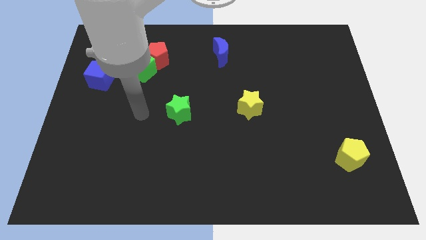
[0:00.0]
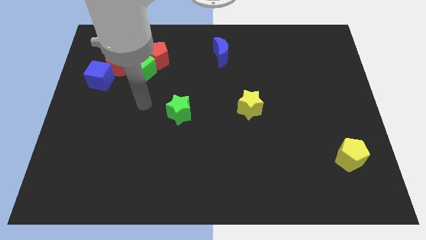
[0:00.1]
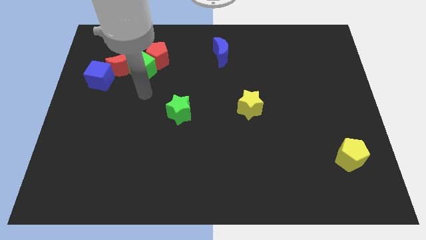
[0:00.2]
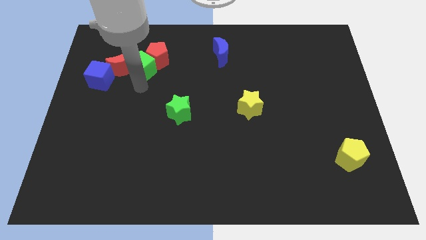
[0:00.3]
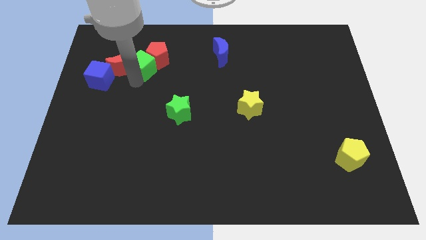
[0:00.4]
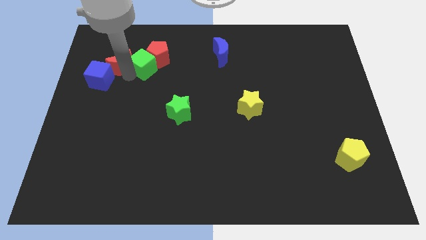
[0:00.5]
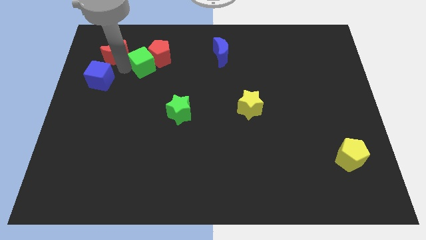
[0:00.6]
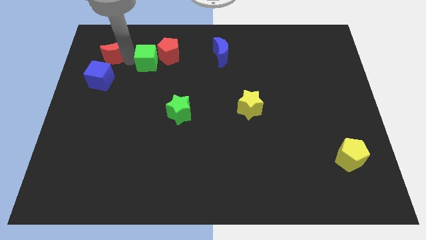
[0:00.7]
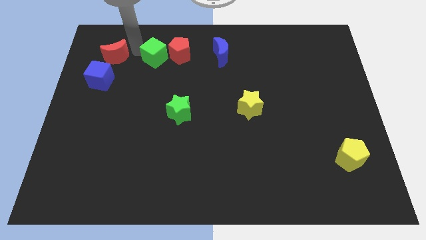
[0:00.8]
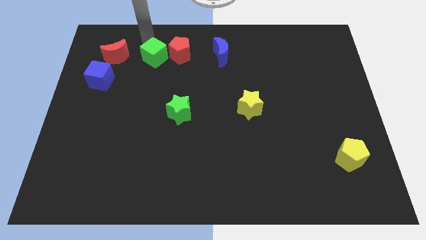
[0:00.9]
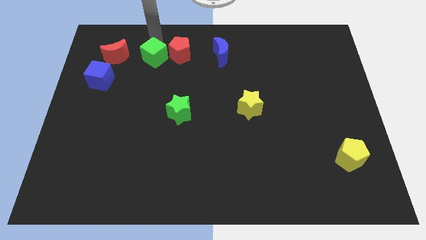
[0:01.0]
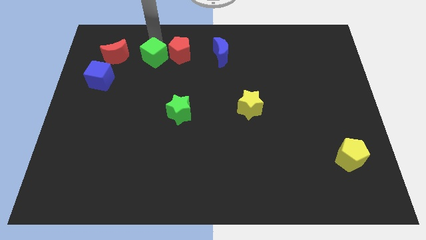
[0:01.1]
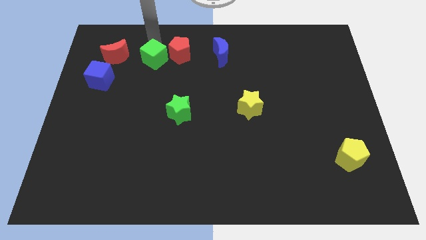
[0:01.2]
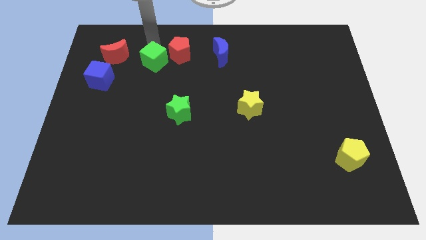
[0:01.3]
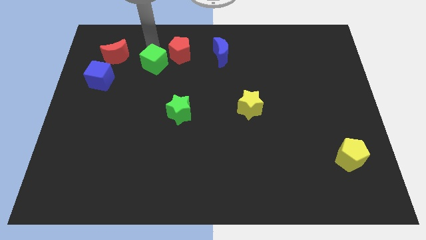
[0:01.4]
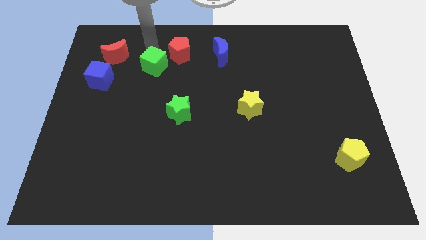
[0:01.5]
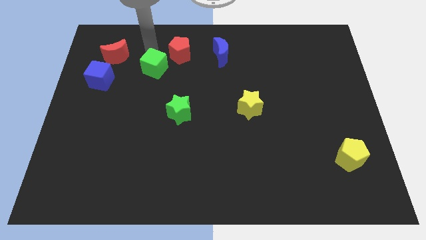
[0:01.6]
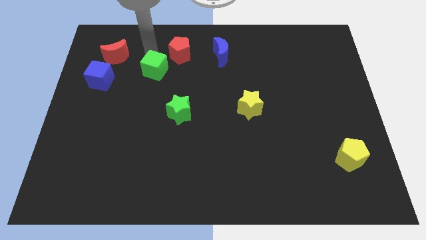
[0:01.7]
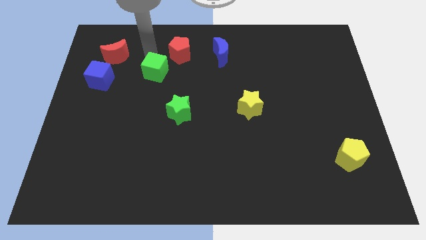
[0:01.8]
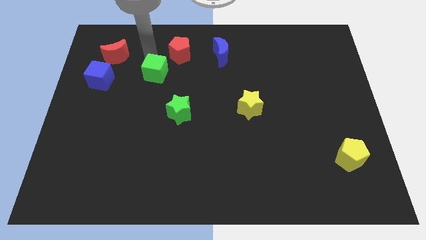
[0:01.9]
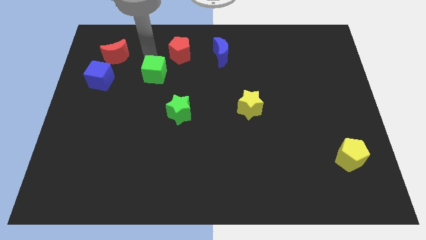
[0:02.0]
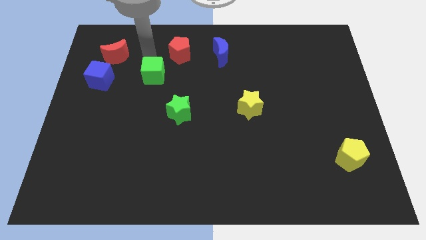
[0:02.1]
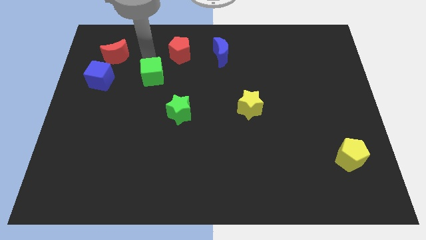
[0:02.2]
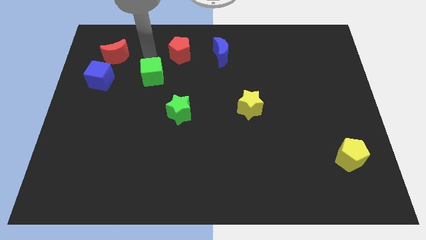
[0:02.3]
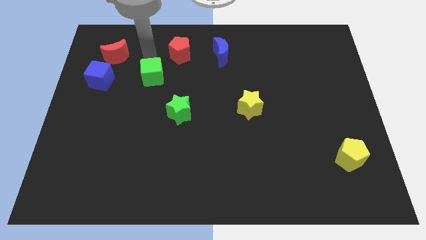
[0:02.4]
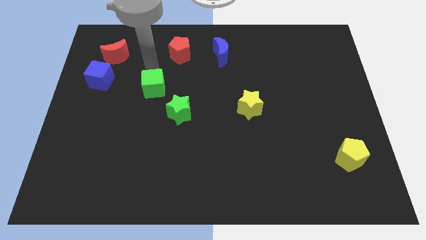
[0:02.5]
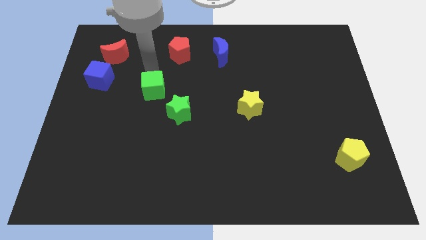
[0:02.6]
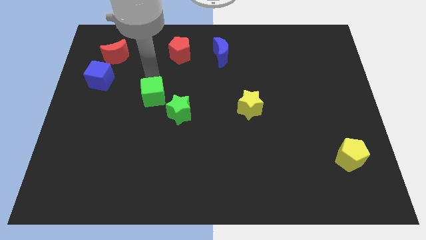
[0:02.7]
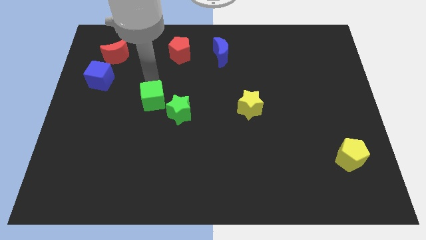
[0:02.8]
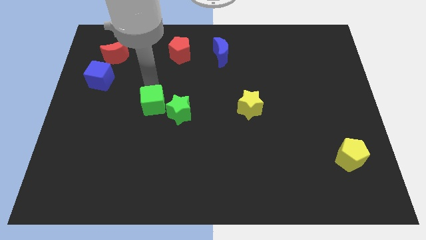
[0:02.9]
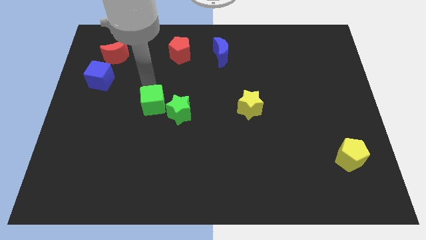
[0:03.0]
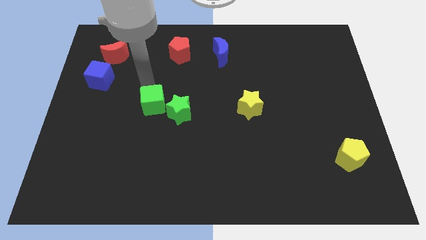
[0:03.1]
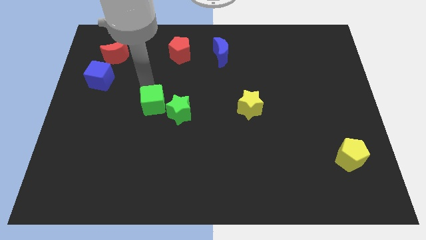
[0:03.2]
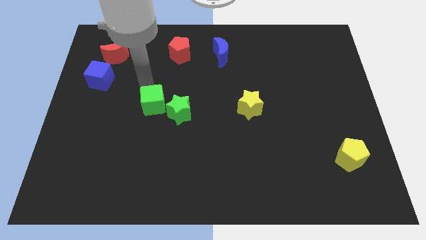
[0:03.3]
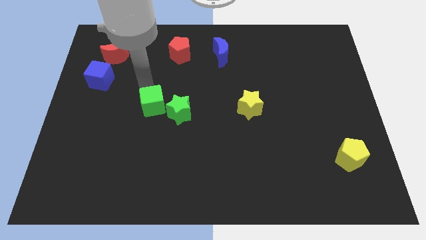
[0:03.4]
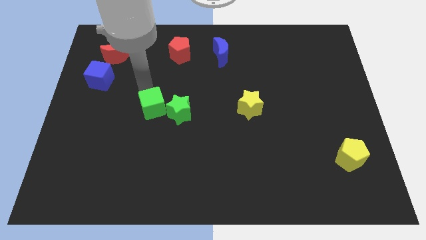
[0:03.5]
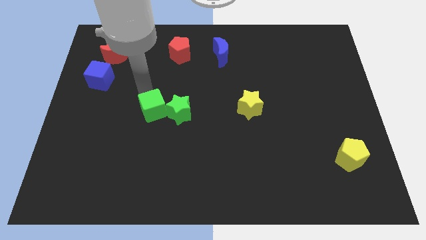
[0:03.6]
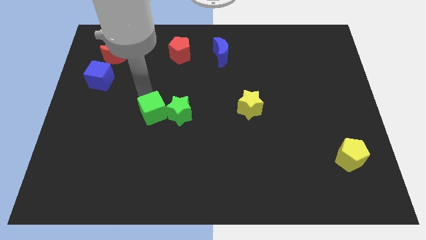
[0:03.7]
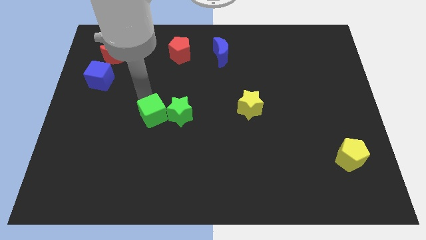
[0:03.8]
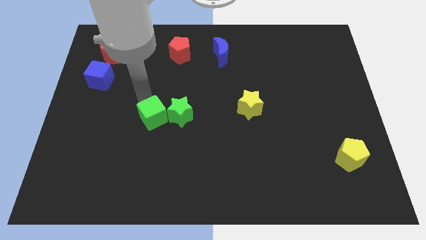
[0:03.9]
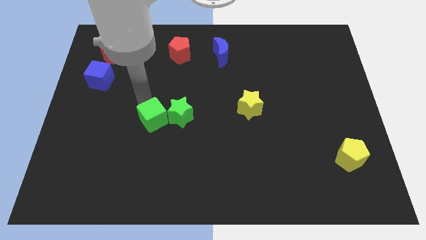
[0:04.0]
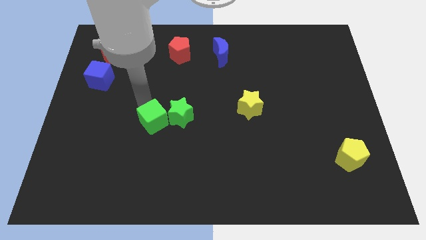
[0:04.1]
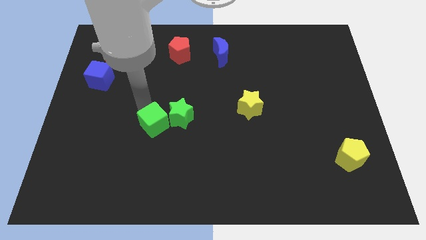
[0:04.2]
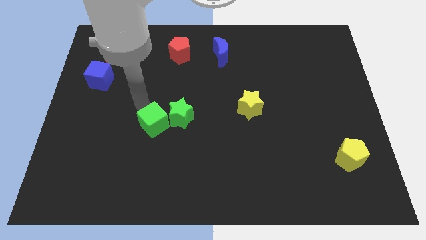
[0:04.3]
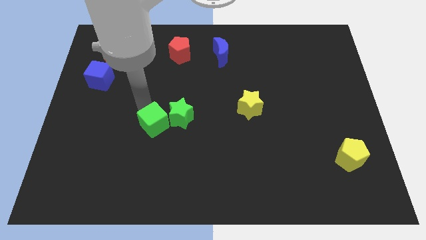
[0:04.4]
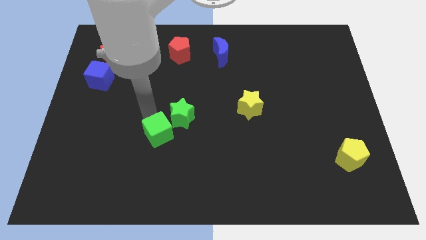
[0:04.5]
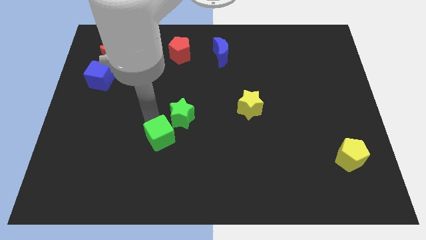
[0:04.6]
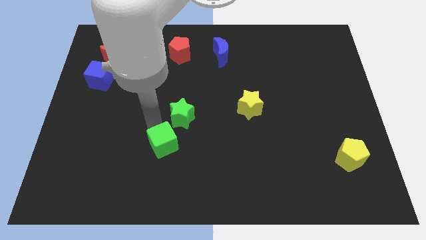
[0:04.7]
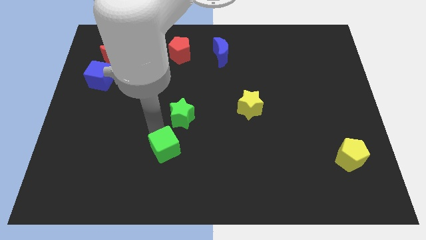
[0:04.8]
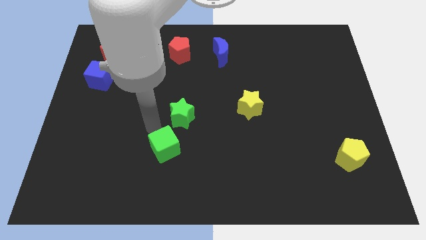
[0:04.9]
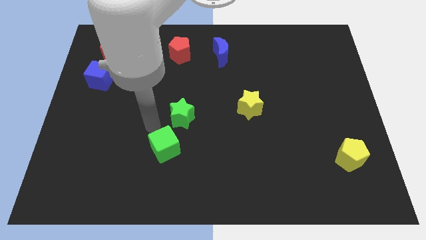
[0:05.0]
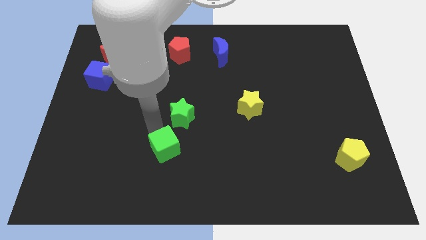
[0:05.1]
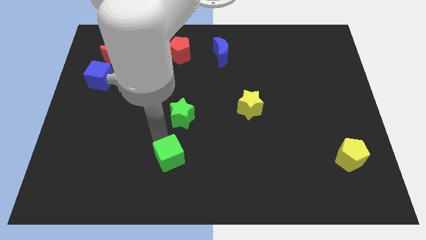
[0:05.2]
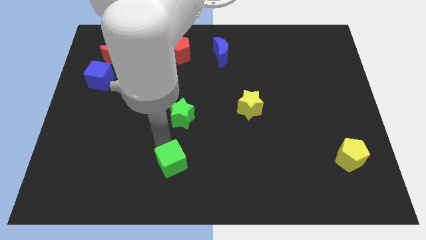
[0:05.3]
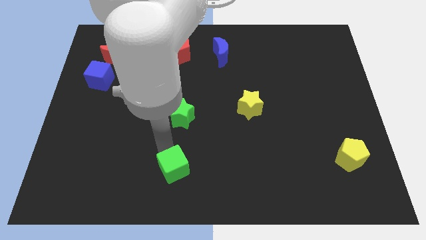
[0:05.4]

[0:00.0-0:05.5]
move the green cube to the bottom
